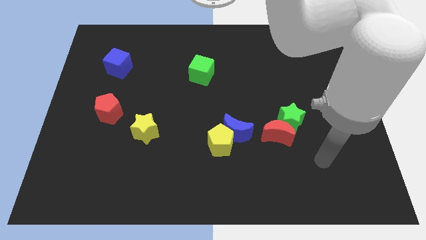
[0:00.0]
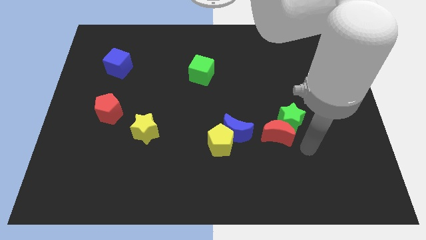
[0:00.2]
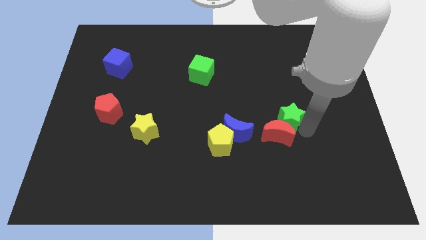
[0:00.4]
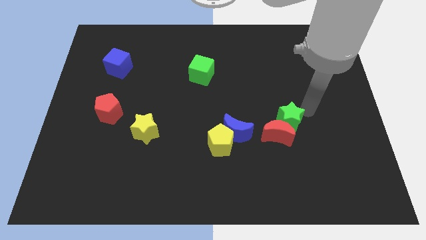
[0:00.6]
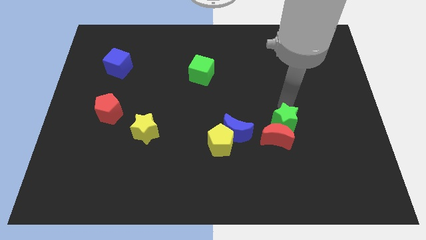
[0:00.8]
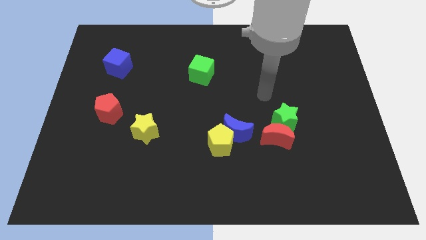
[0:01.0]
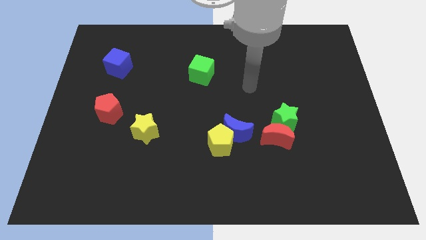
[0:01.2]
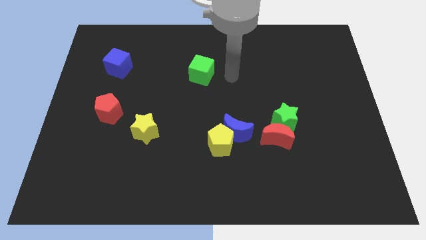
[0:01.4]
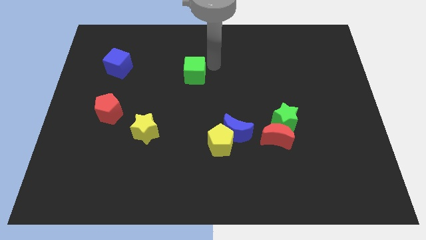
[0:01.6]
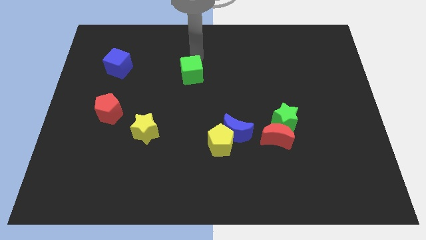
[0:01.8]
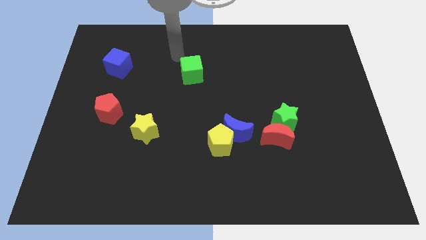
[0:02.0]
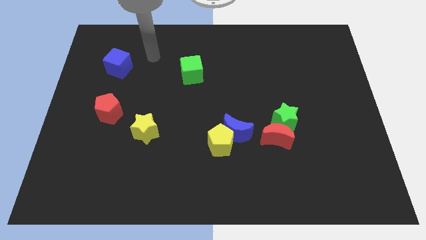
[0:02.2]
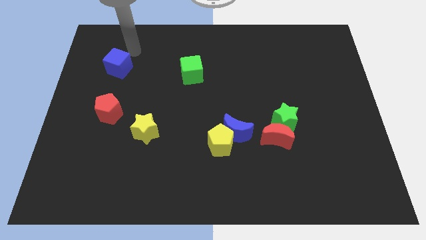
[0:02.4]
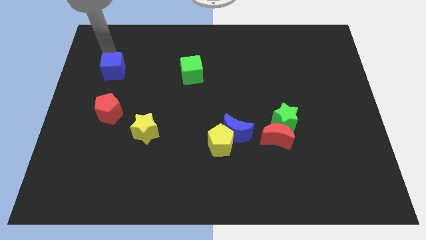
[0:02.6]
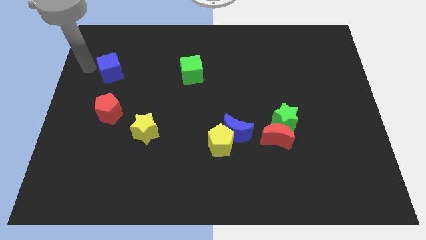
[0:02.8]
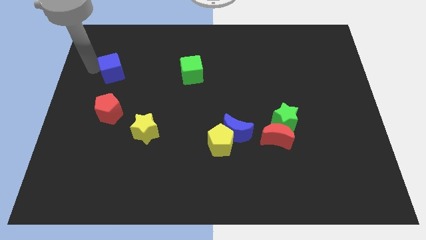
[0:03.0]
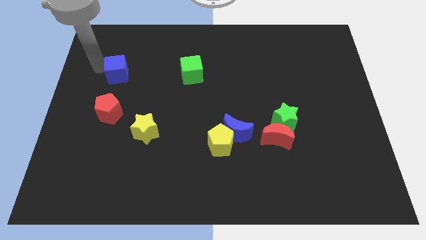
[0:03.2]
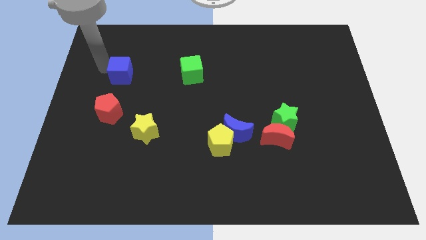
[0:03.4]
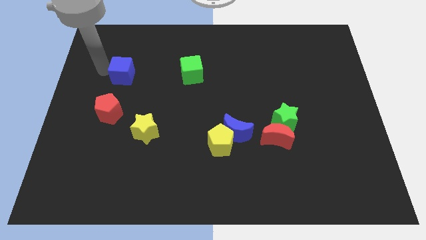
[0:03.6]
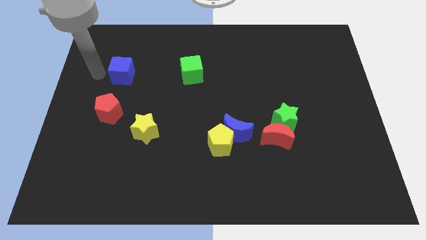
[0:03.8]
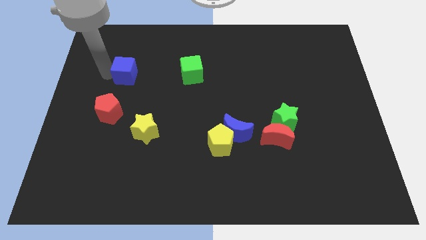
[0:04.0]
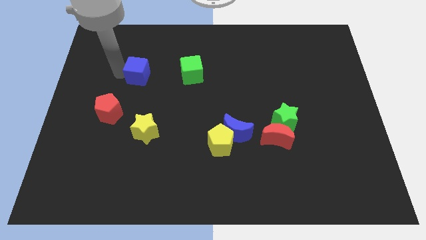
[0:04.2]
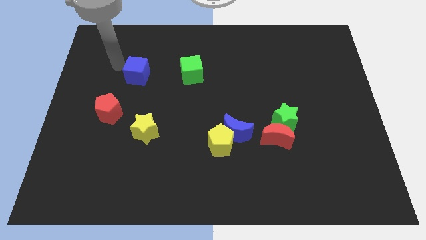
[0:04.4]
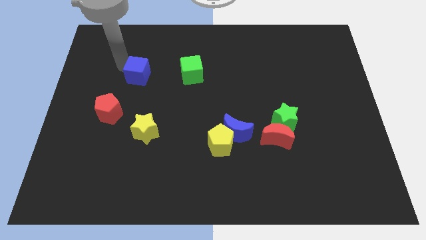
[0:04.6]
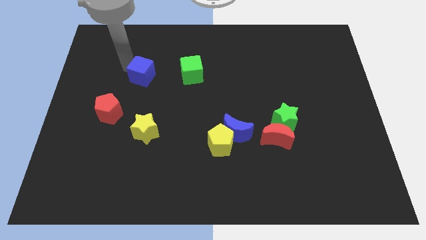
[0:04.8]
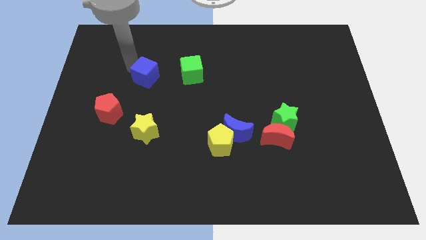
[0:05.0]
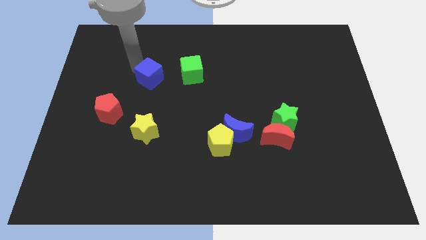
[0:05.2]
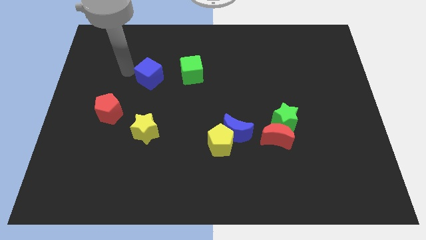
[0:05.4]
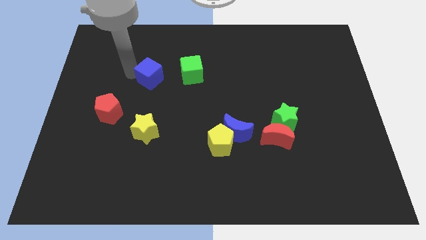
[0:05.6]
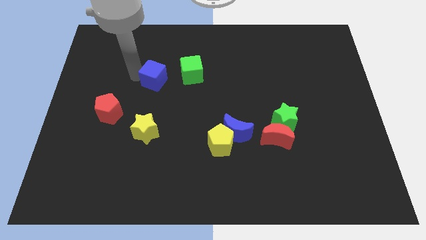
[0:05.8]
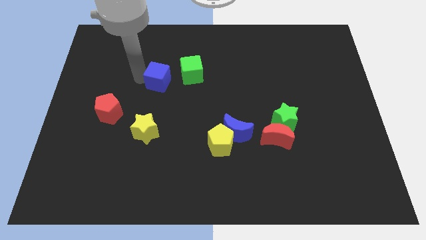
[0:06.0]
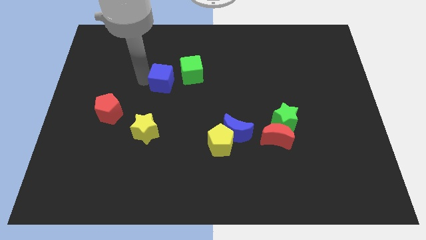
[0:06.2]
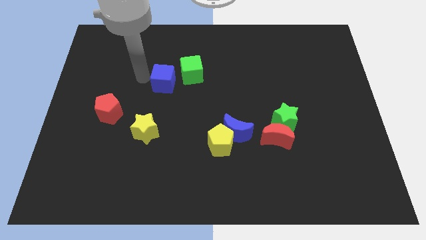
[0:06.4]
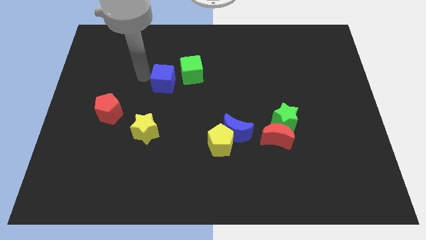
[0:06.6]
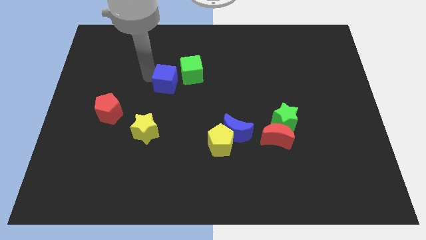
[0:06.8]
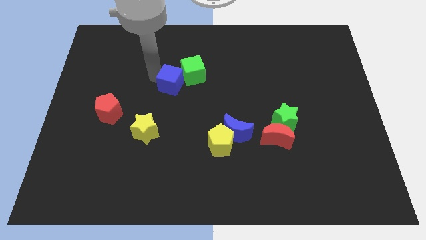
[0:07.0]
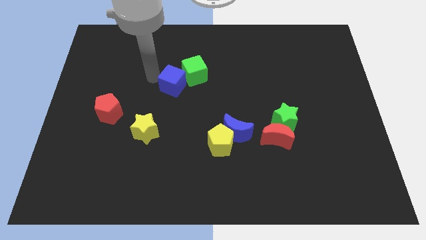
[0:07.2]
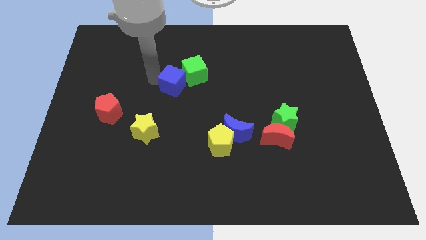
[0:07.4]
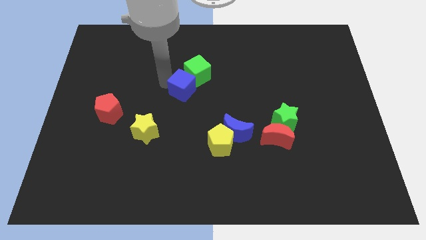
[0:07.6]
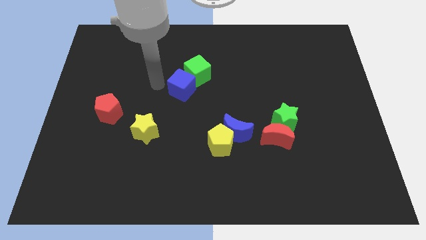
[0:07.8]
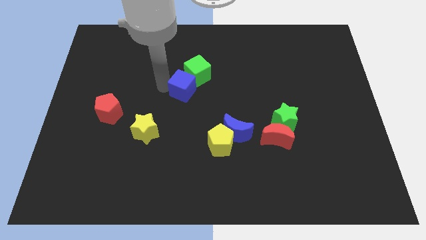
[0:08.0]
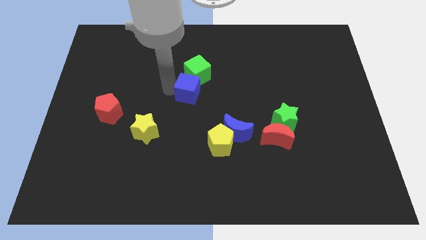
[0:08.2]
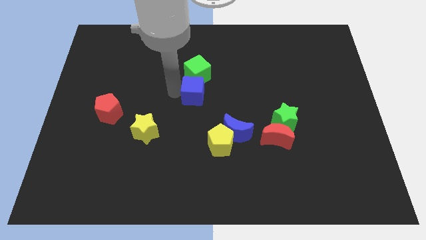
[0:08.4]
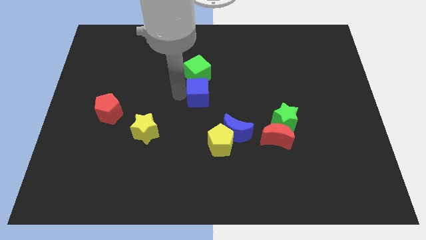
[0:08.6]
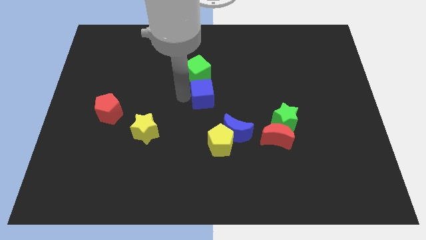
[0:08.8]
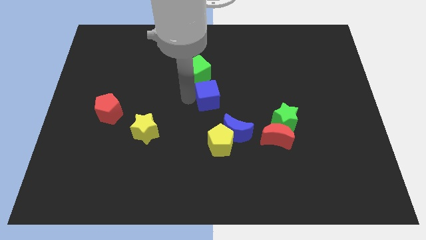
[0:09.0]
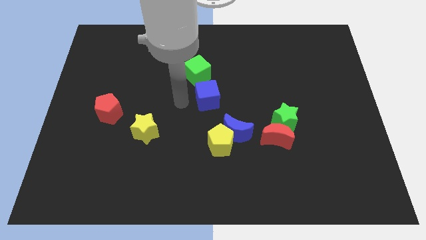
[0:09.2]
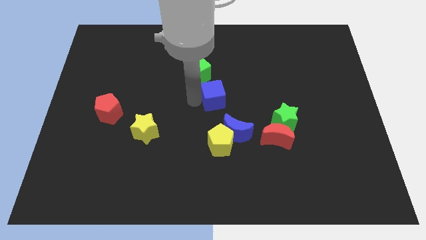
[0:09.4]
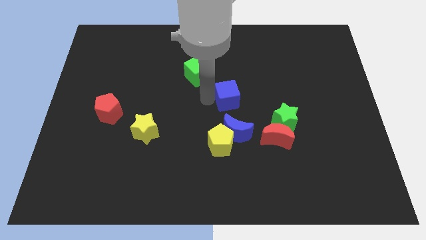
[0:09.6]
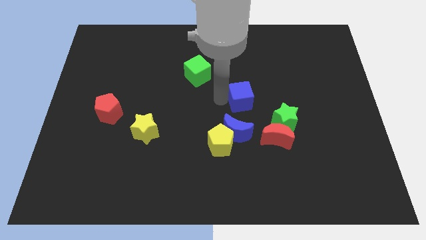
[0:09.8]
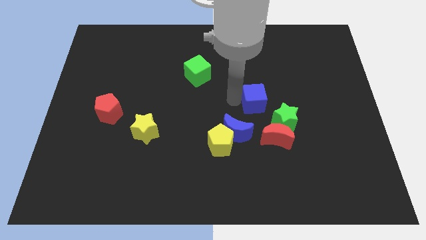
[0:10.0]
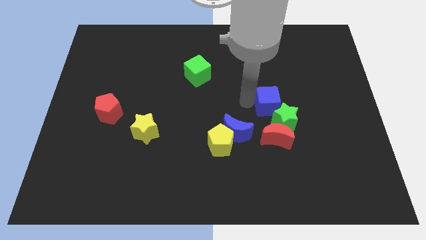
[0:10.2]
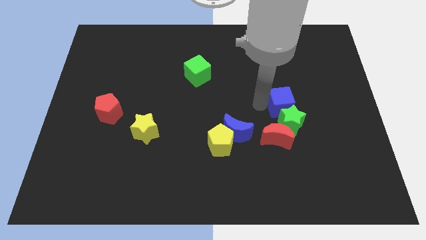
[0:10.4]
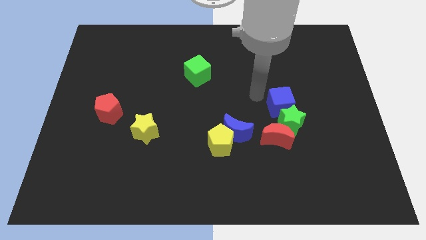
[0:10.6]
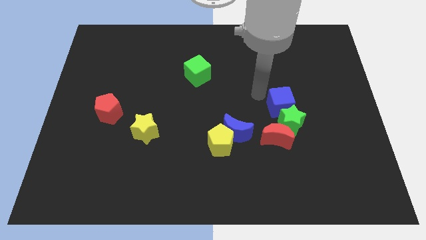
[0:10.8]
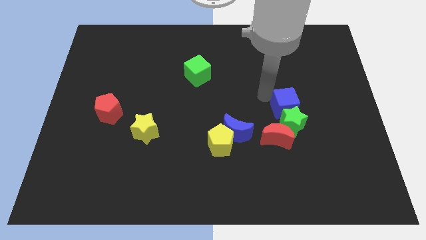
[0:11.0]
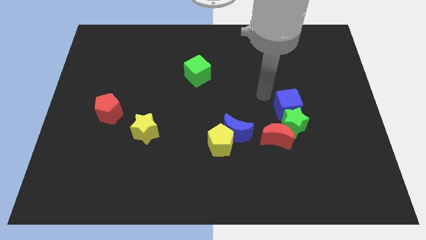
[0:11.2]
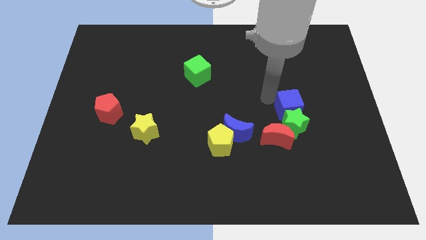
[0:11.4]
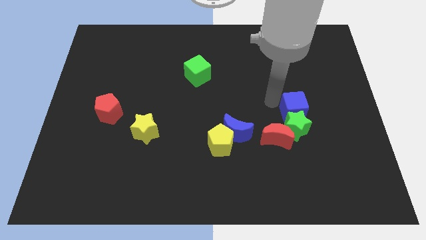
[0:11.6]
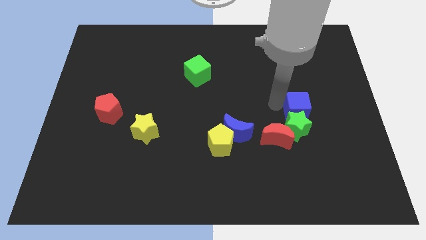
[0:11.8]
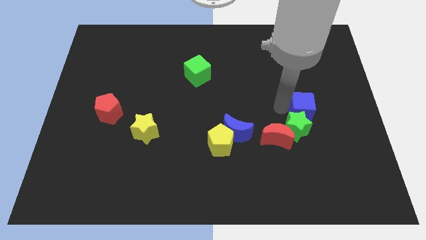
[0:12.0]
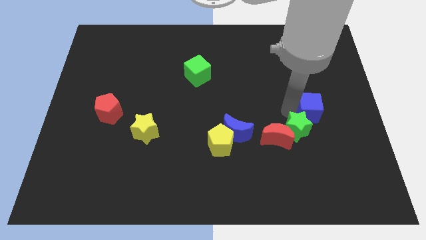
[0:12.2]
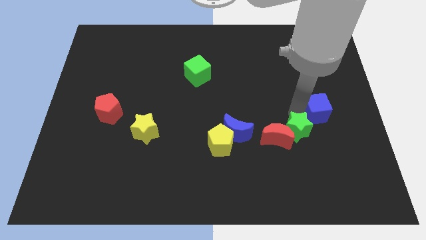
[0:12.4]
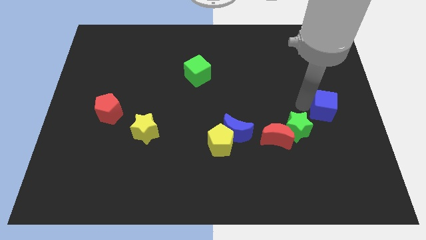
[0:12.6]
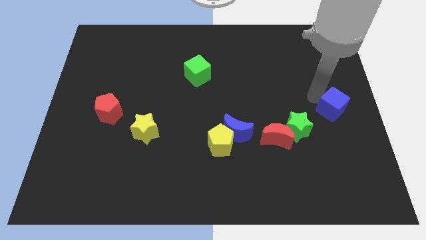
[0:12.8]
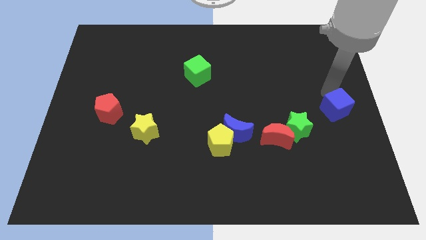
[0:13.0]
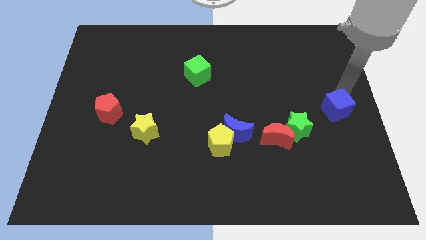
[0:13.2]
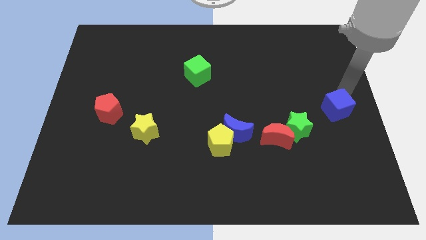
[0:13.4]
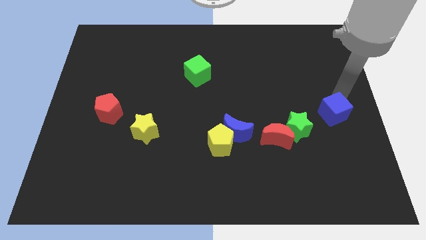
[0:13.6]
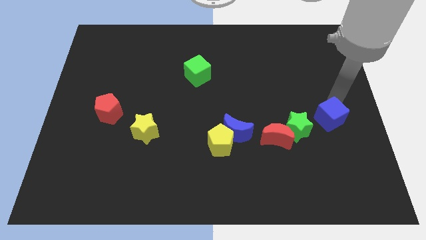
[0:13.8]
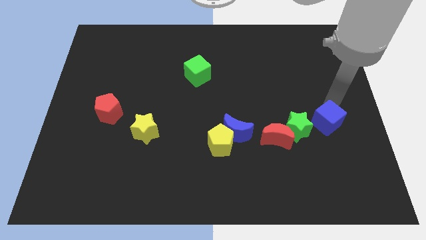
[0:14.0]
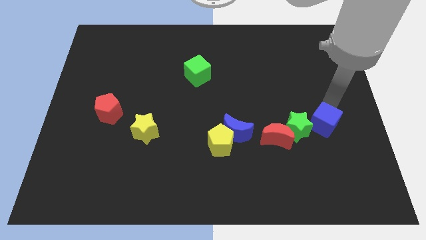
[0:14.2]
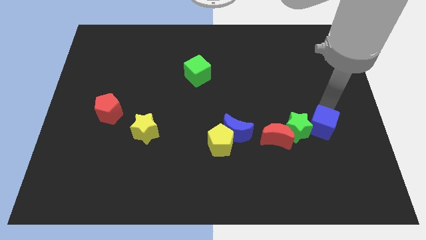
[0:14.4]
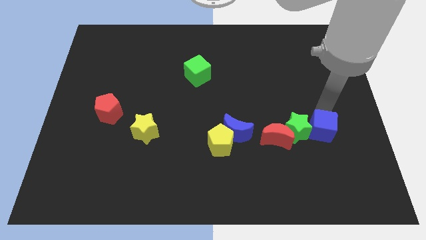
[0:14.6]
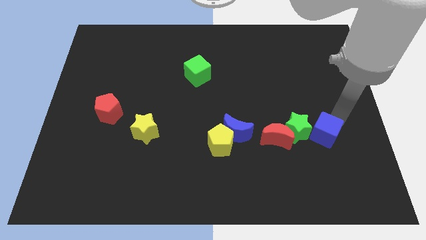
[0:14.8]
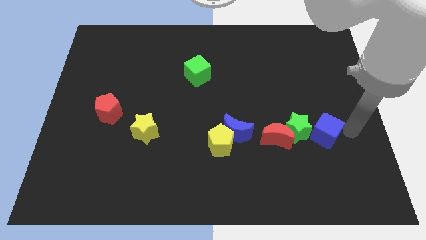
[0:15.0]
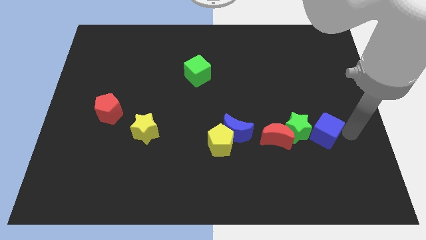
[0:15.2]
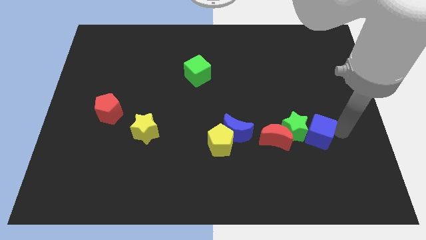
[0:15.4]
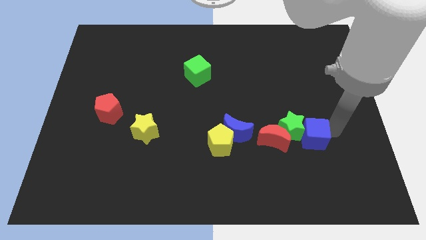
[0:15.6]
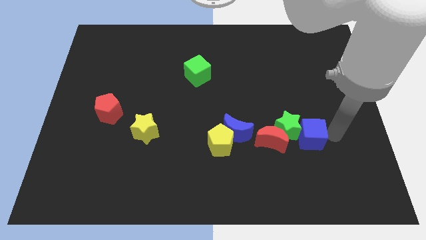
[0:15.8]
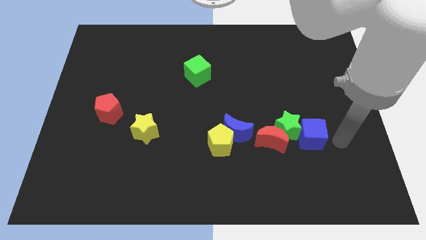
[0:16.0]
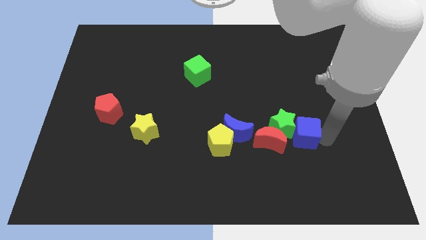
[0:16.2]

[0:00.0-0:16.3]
push the blue cube right of the blue moon
